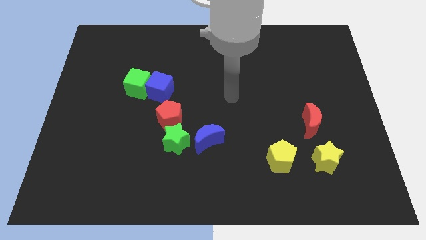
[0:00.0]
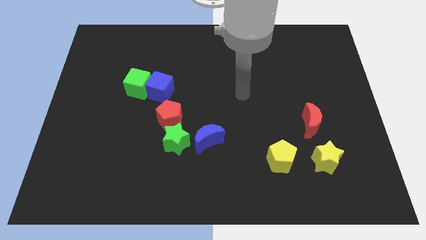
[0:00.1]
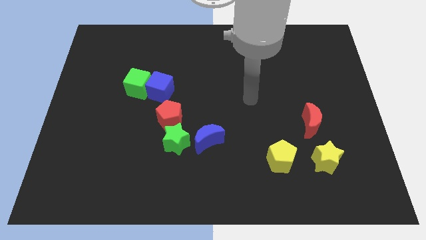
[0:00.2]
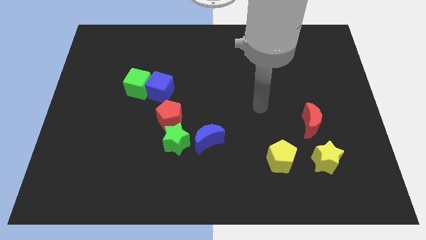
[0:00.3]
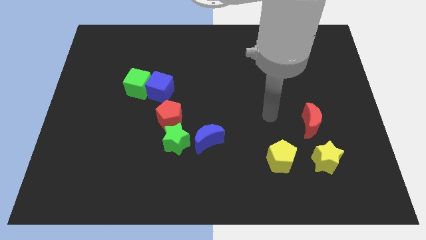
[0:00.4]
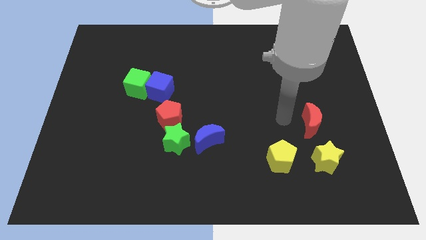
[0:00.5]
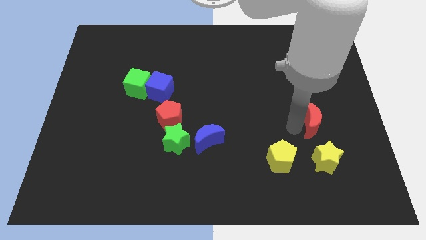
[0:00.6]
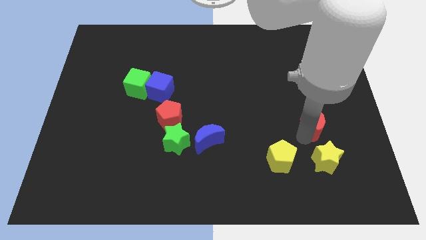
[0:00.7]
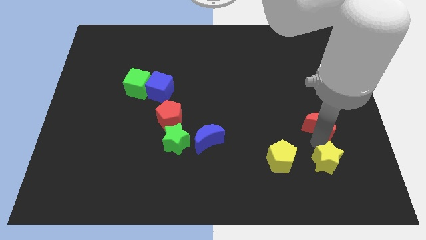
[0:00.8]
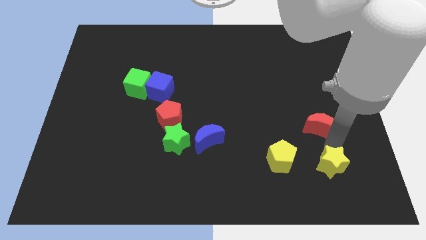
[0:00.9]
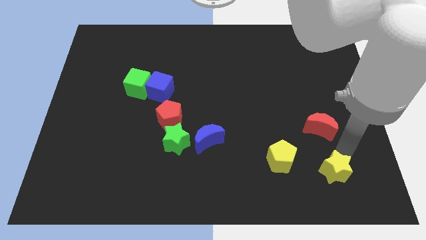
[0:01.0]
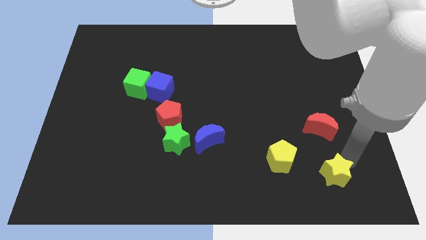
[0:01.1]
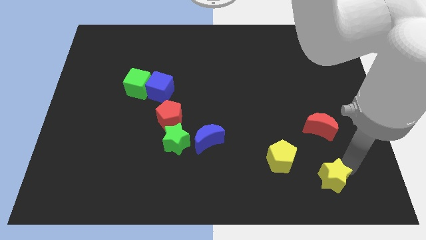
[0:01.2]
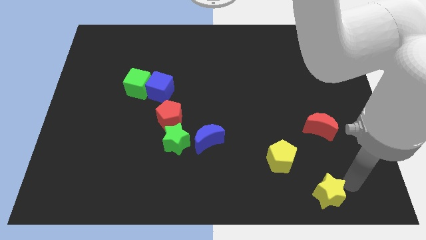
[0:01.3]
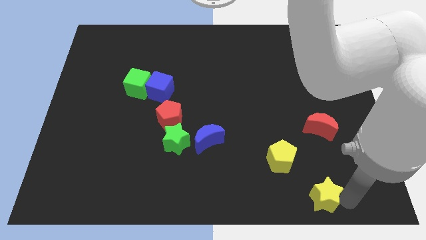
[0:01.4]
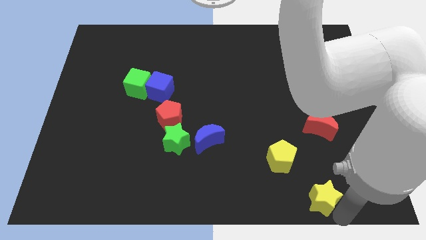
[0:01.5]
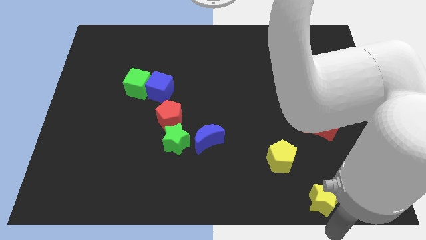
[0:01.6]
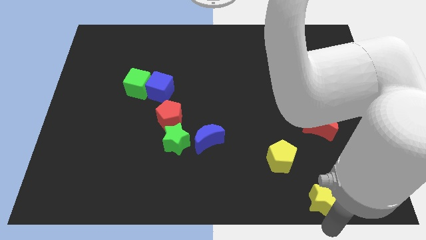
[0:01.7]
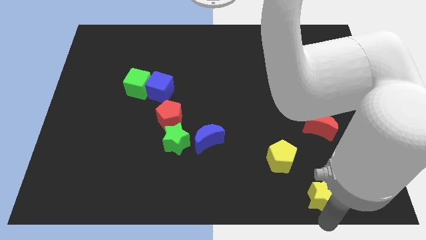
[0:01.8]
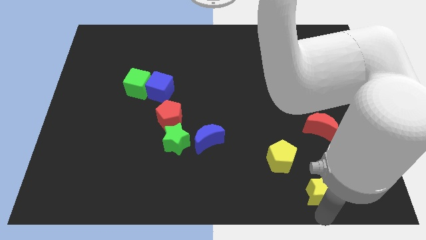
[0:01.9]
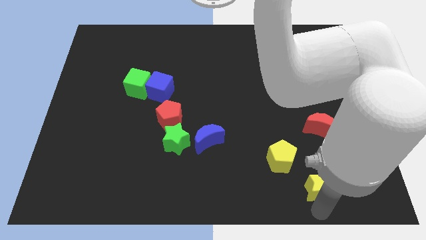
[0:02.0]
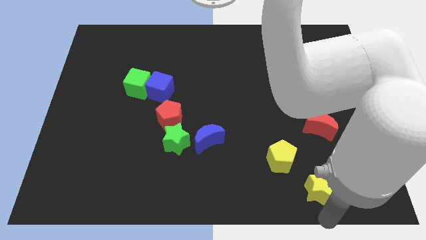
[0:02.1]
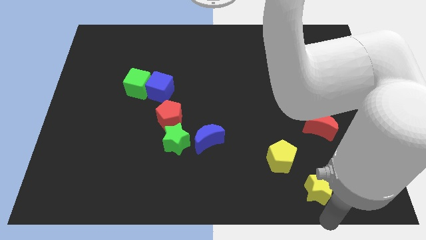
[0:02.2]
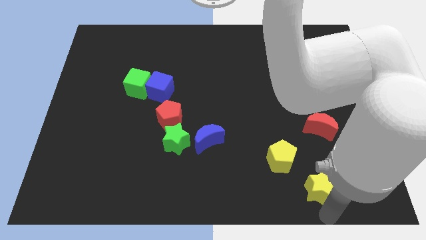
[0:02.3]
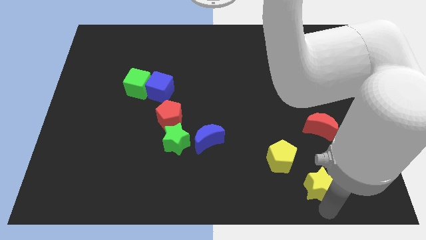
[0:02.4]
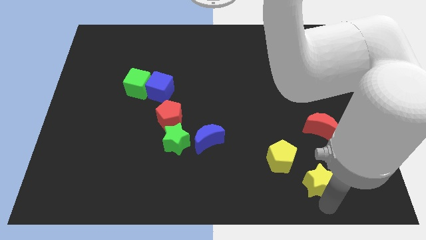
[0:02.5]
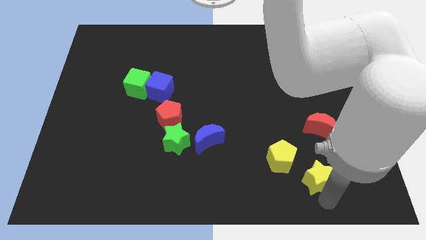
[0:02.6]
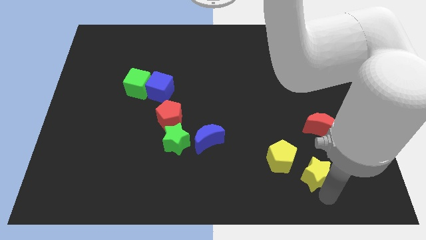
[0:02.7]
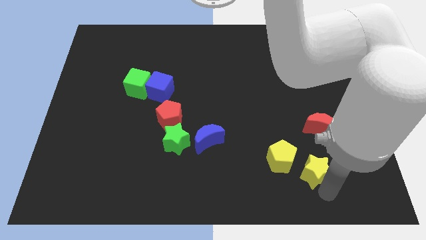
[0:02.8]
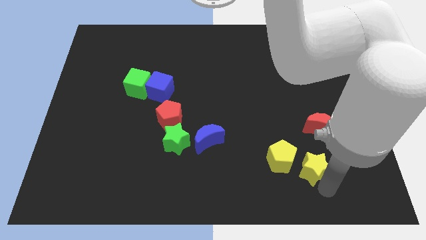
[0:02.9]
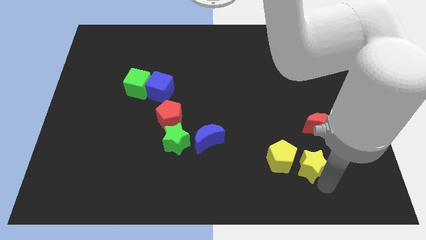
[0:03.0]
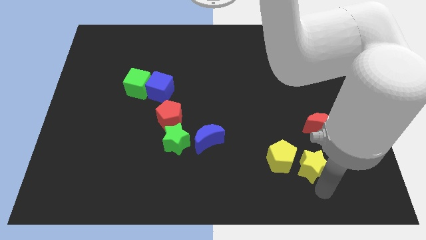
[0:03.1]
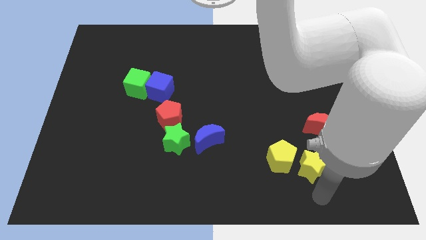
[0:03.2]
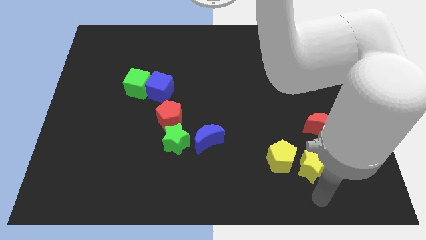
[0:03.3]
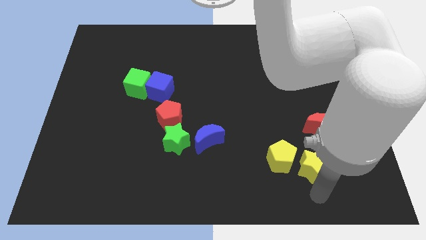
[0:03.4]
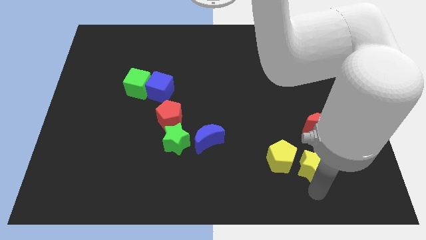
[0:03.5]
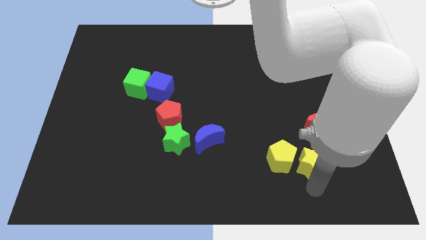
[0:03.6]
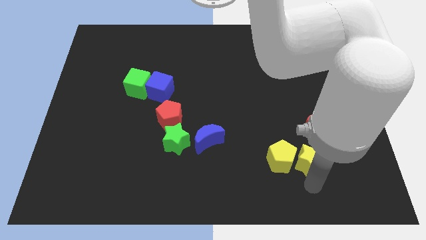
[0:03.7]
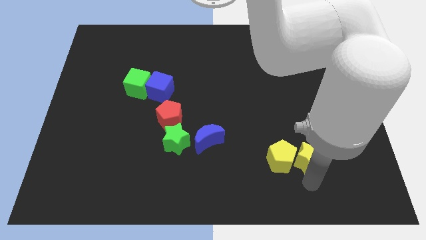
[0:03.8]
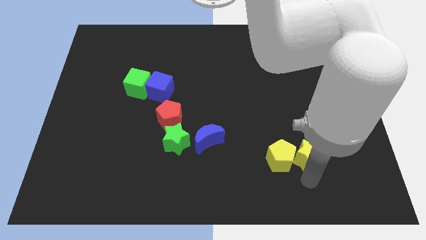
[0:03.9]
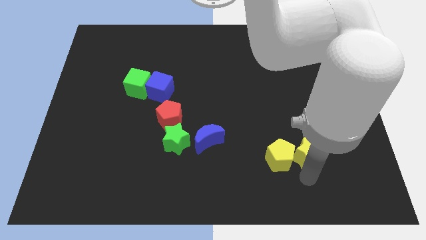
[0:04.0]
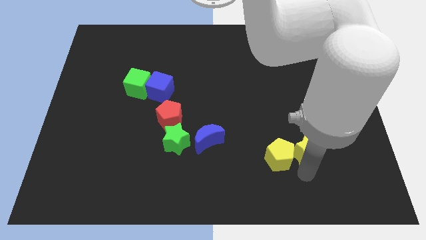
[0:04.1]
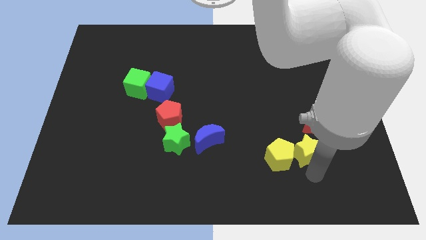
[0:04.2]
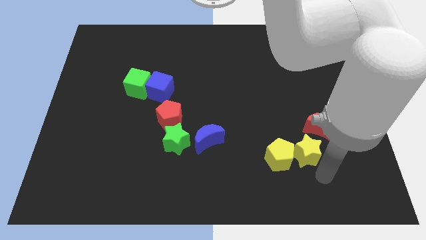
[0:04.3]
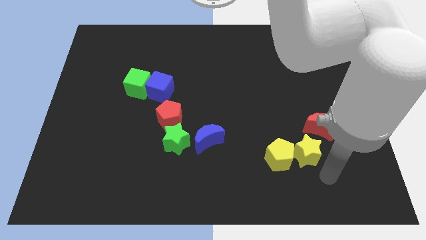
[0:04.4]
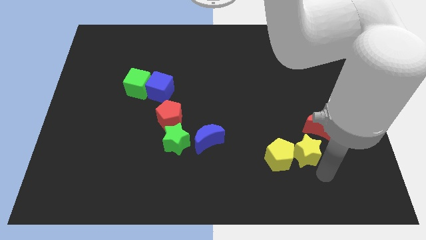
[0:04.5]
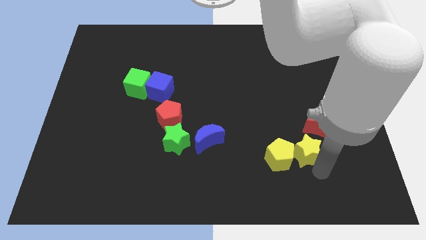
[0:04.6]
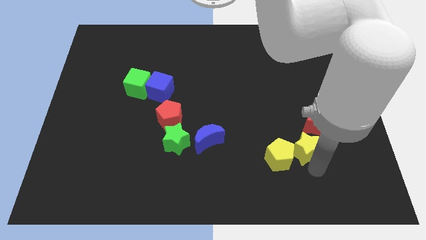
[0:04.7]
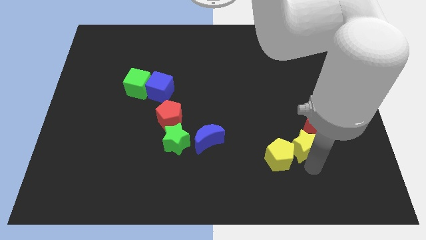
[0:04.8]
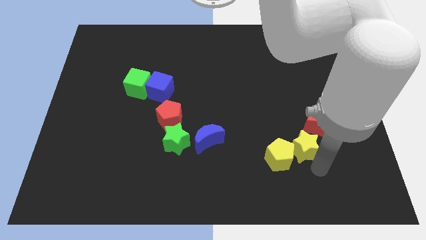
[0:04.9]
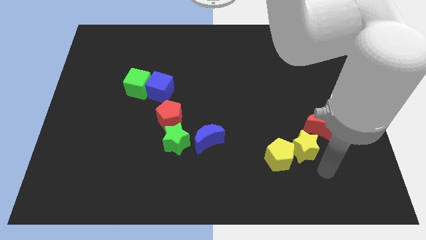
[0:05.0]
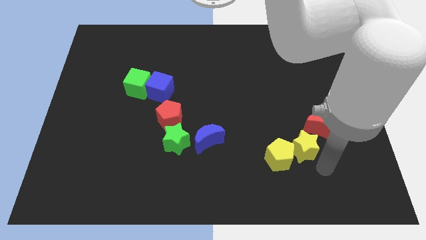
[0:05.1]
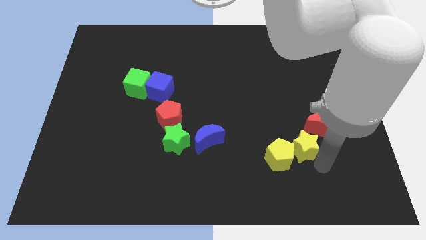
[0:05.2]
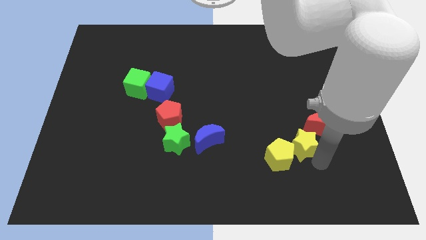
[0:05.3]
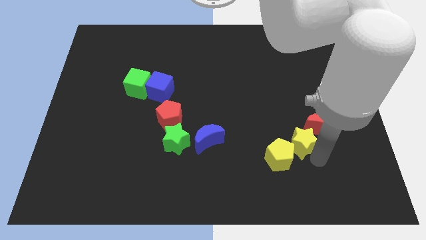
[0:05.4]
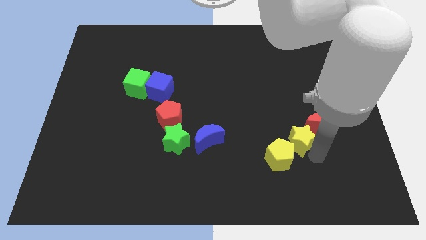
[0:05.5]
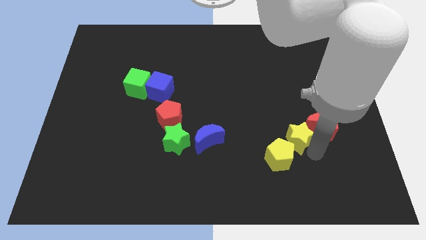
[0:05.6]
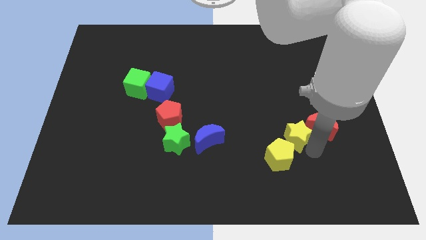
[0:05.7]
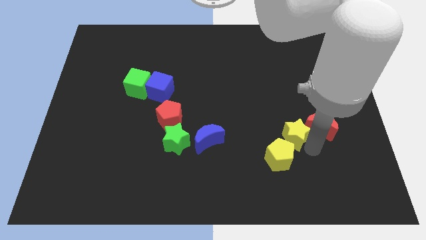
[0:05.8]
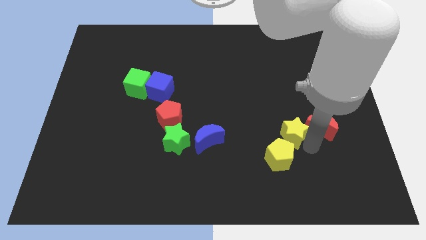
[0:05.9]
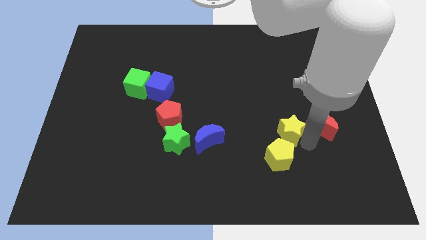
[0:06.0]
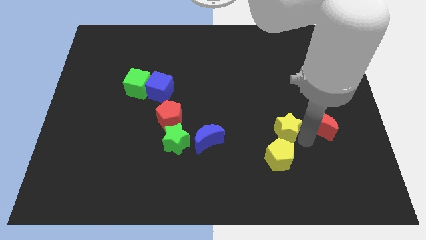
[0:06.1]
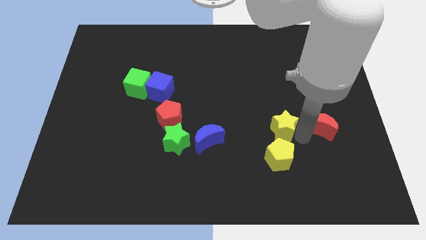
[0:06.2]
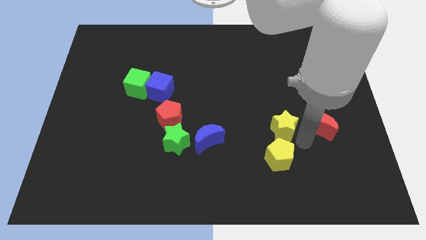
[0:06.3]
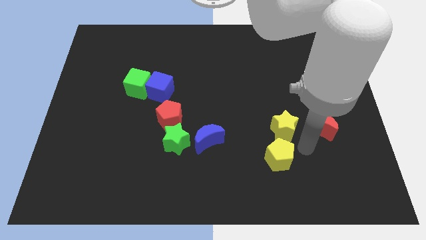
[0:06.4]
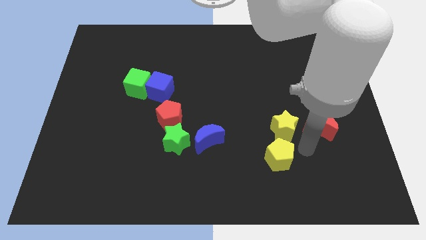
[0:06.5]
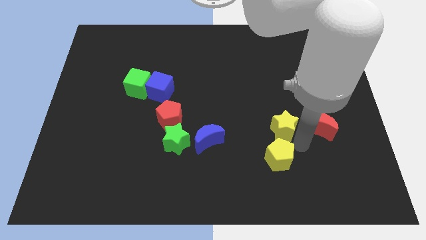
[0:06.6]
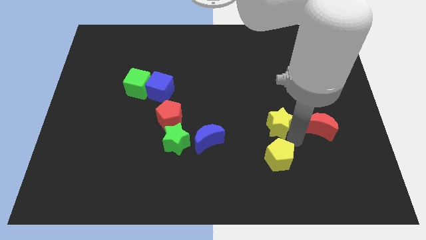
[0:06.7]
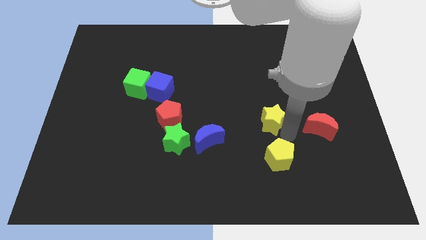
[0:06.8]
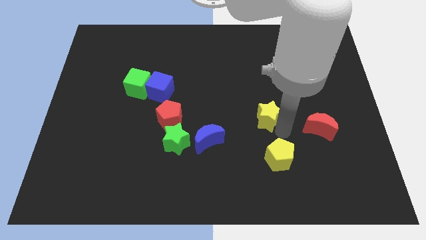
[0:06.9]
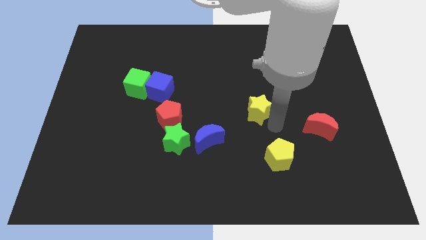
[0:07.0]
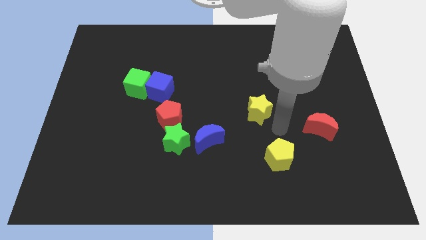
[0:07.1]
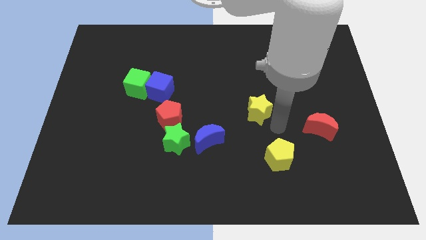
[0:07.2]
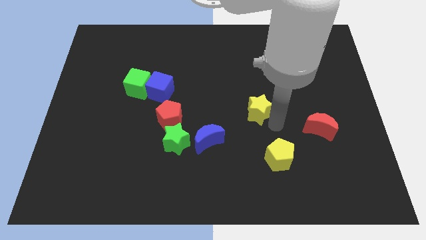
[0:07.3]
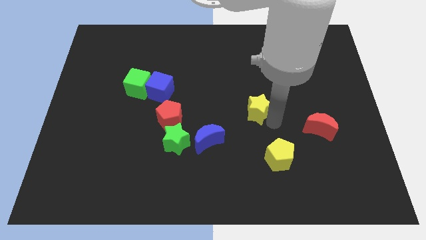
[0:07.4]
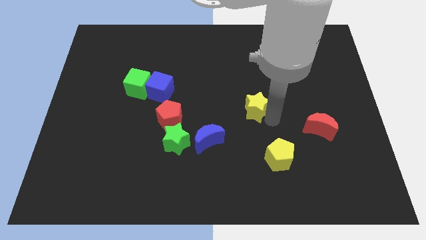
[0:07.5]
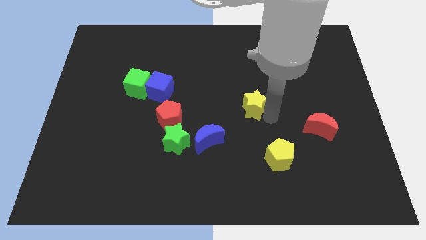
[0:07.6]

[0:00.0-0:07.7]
slide the yellow star upwards and to the left diagonally

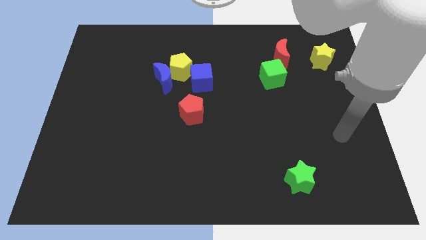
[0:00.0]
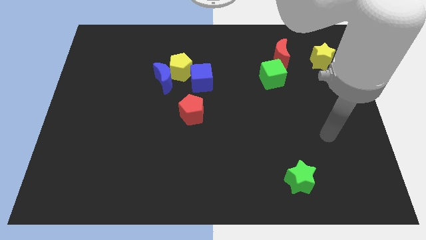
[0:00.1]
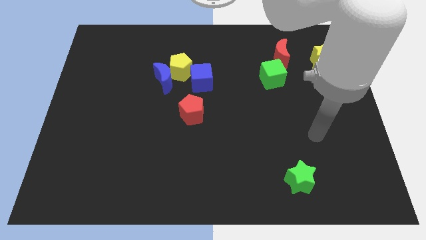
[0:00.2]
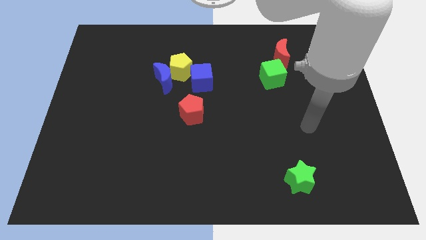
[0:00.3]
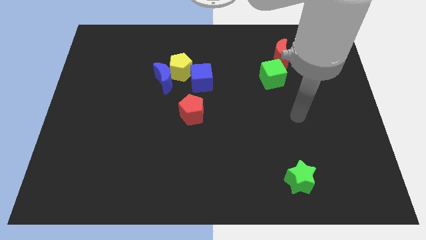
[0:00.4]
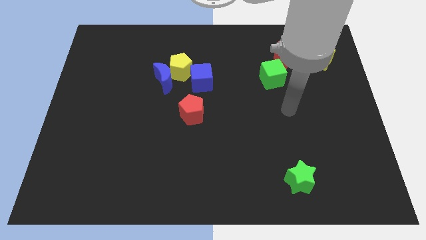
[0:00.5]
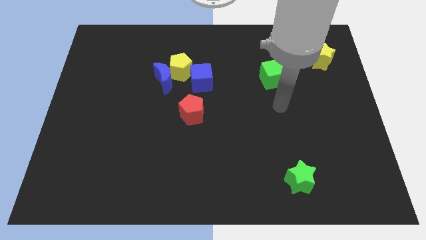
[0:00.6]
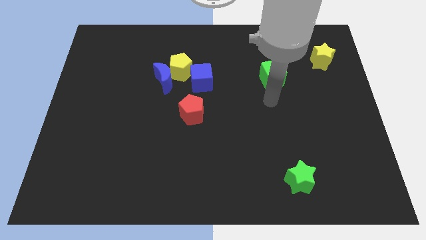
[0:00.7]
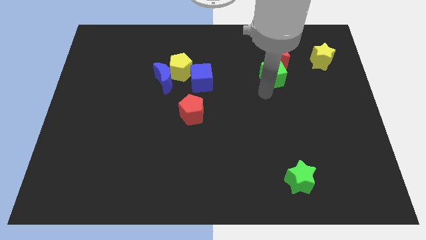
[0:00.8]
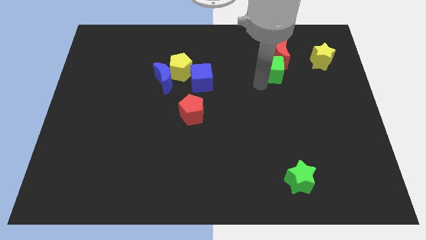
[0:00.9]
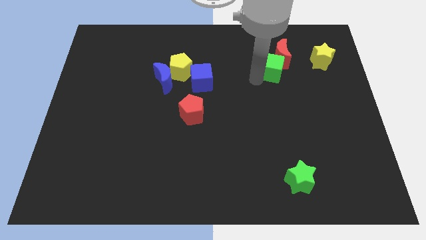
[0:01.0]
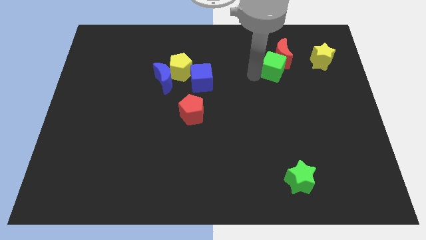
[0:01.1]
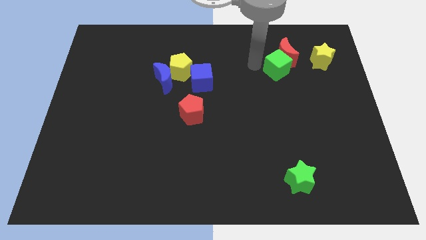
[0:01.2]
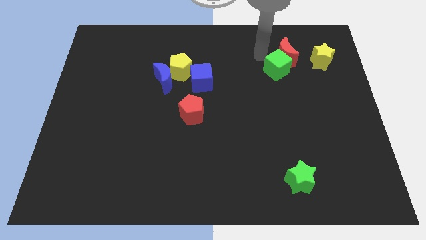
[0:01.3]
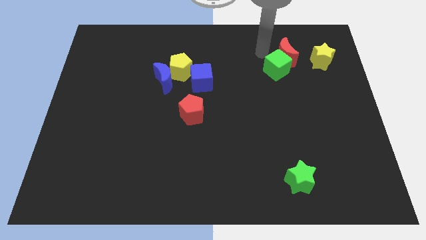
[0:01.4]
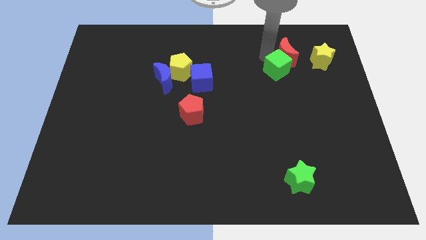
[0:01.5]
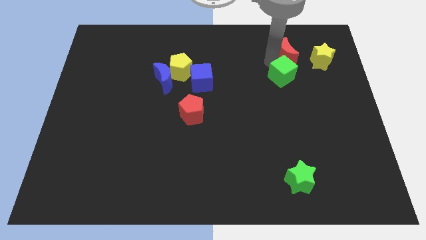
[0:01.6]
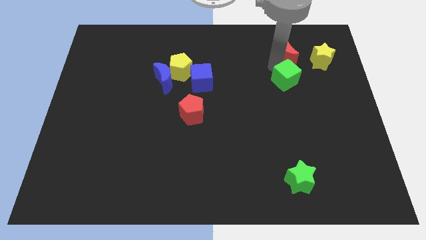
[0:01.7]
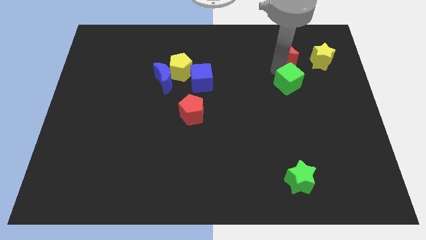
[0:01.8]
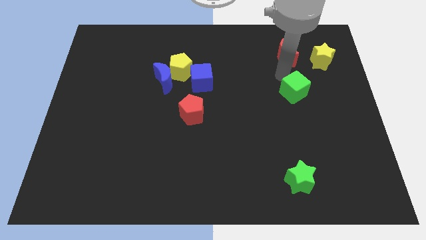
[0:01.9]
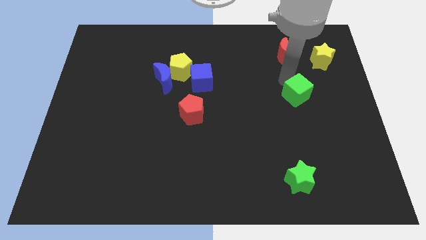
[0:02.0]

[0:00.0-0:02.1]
slide the green cube downwards and right diagonally a bit
